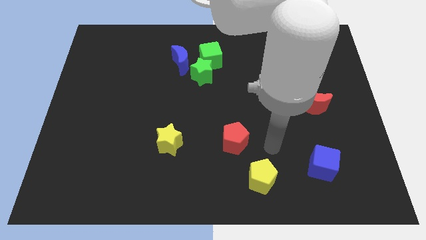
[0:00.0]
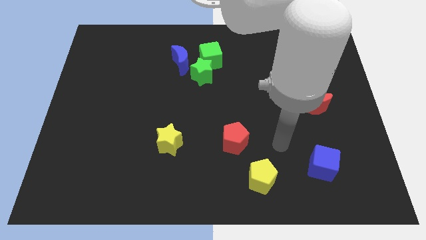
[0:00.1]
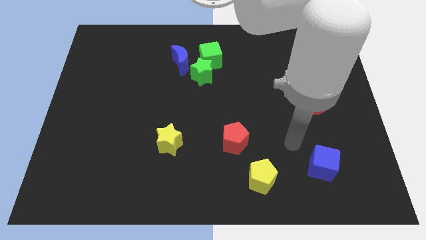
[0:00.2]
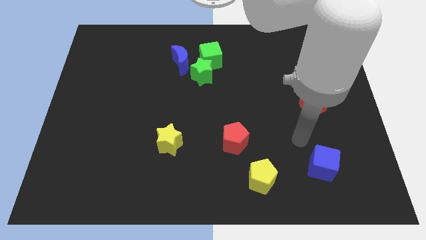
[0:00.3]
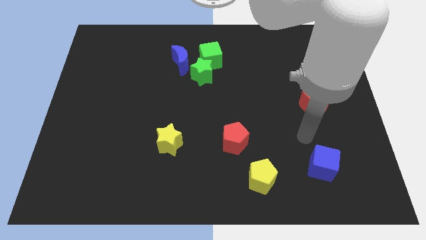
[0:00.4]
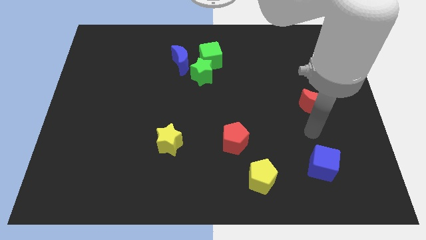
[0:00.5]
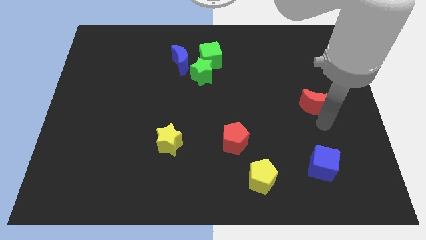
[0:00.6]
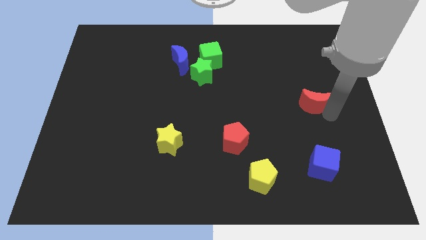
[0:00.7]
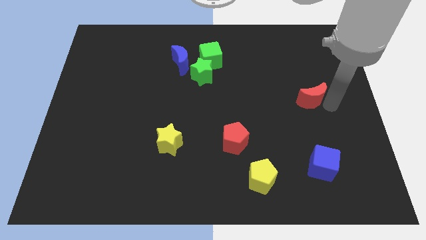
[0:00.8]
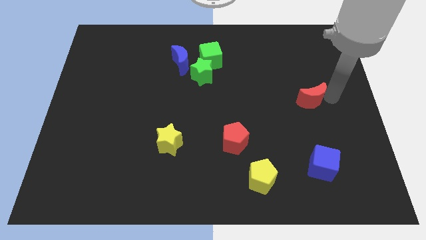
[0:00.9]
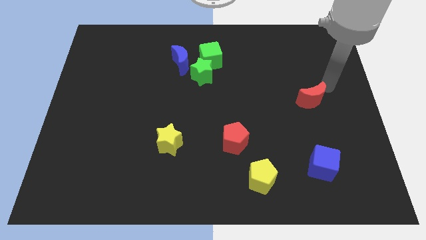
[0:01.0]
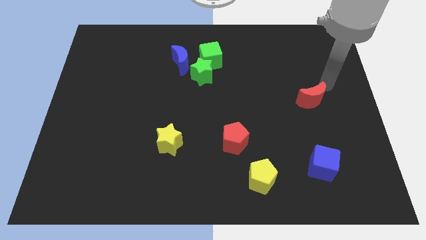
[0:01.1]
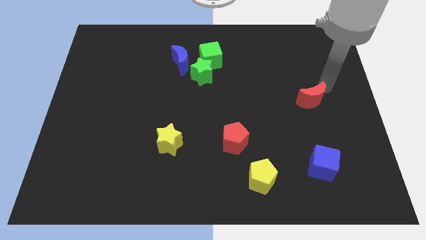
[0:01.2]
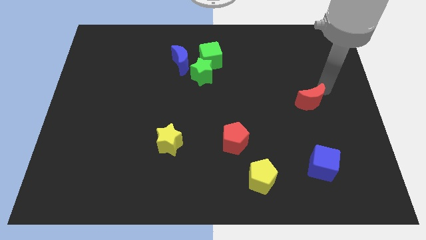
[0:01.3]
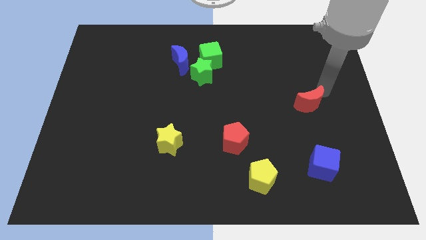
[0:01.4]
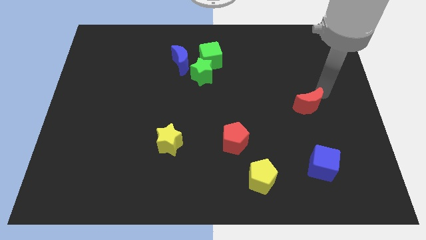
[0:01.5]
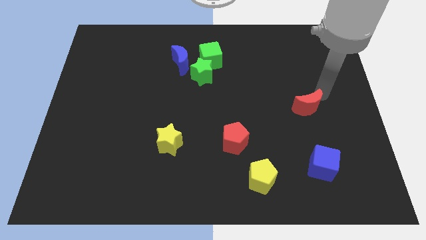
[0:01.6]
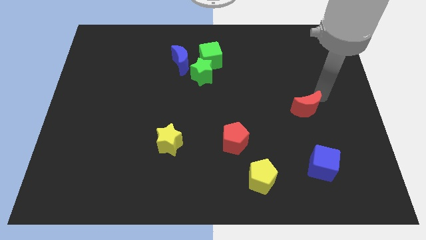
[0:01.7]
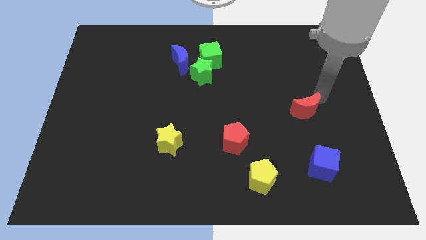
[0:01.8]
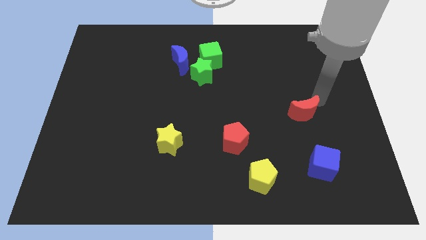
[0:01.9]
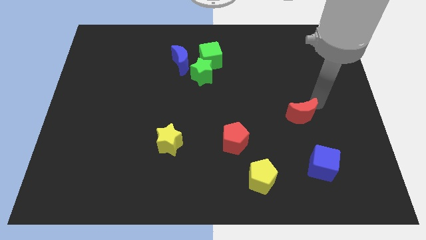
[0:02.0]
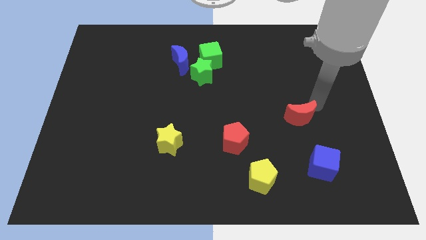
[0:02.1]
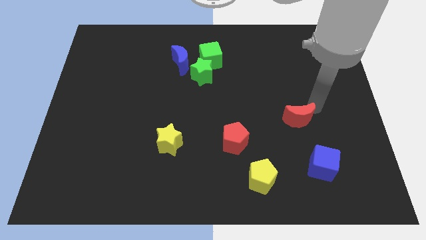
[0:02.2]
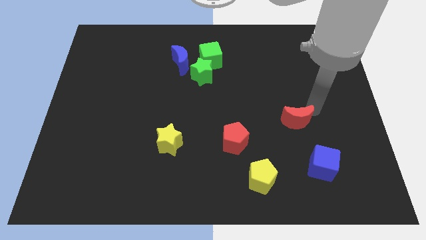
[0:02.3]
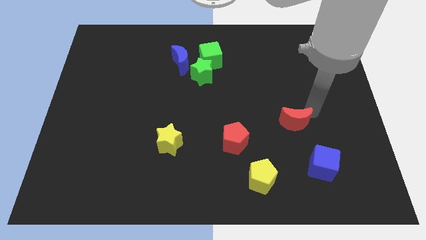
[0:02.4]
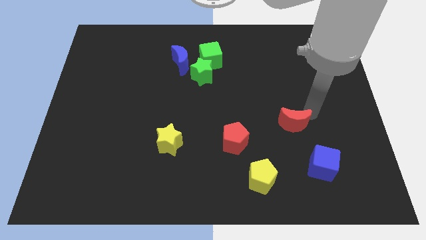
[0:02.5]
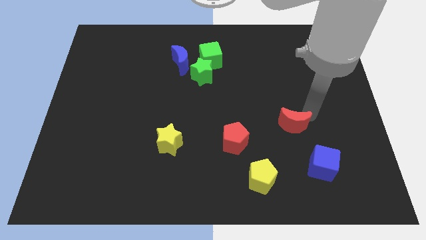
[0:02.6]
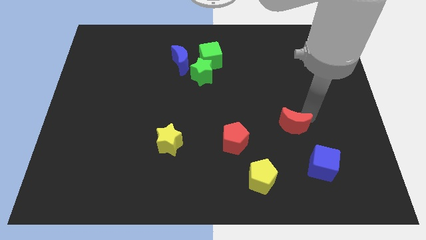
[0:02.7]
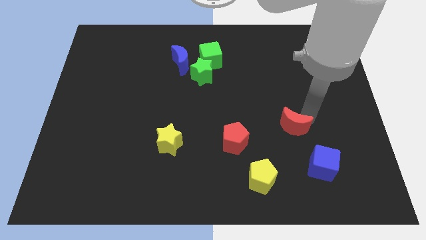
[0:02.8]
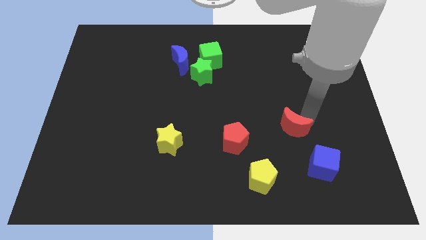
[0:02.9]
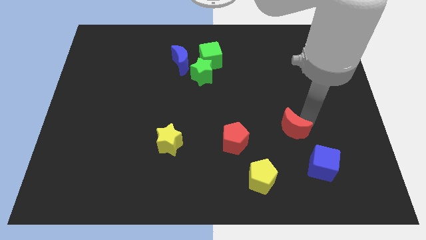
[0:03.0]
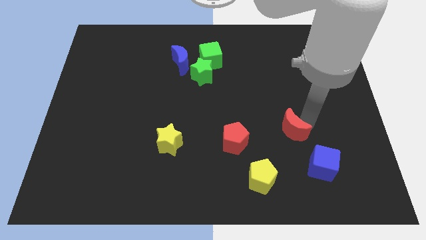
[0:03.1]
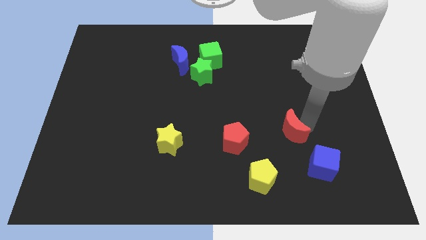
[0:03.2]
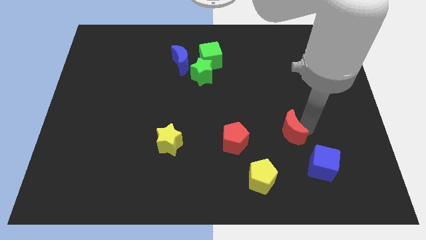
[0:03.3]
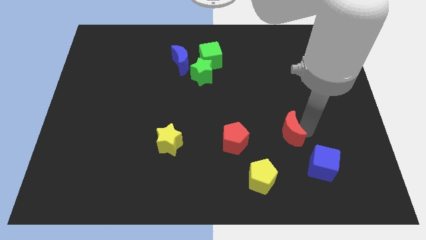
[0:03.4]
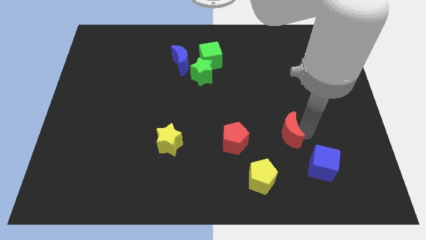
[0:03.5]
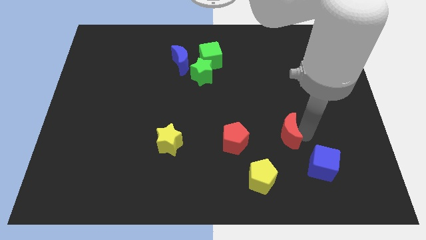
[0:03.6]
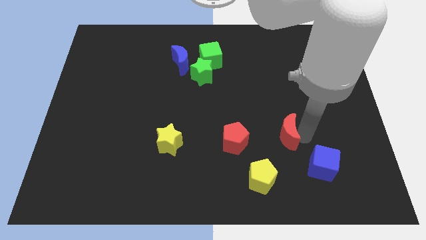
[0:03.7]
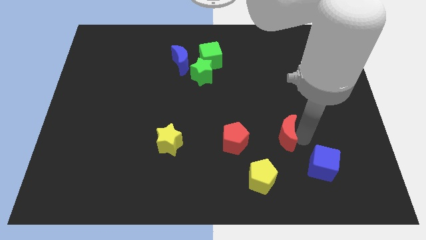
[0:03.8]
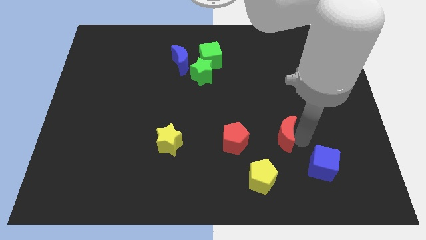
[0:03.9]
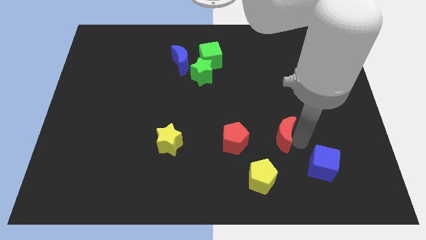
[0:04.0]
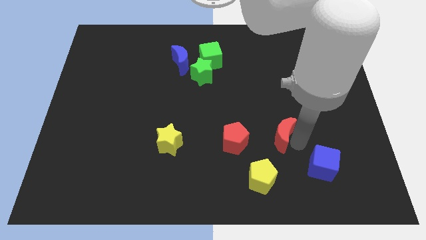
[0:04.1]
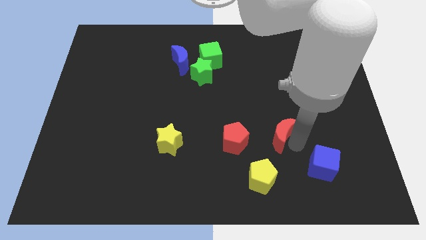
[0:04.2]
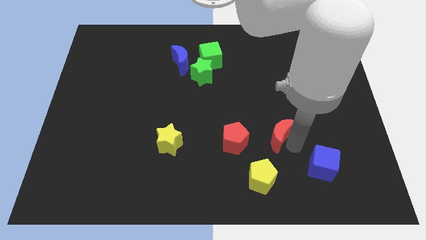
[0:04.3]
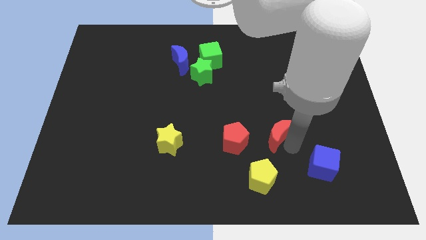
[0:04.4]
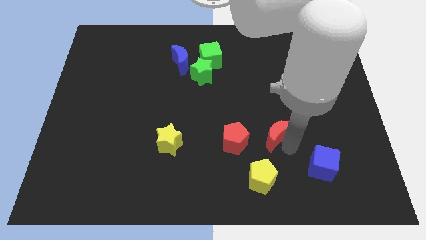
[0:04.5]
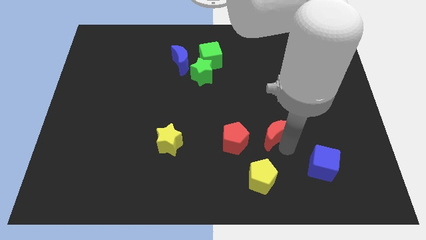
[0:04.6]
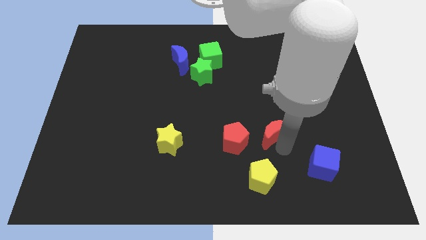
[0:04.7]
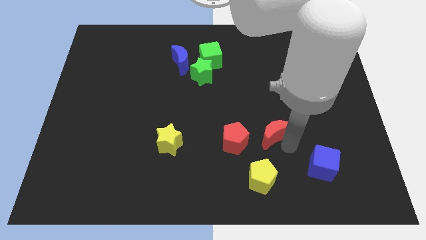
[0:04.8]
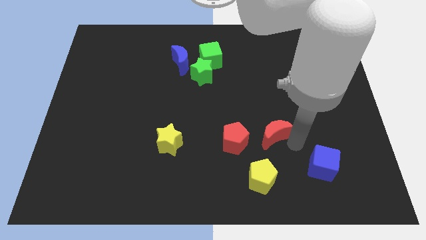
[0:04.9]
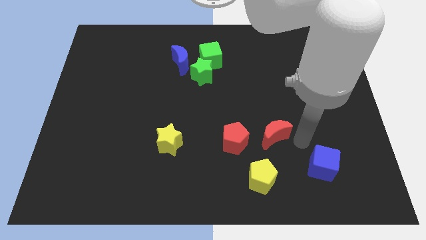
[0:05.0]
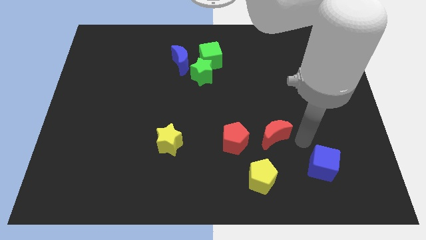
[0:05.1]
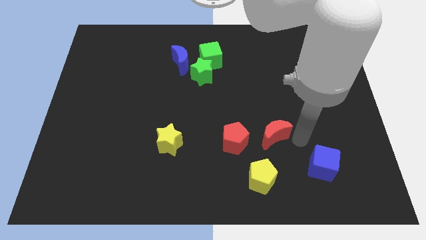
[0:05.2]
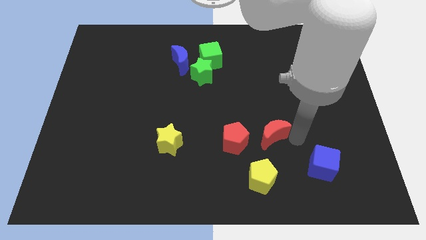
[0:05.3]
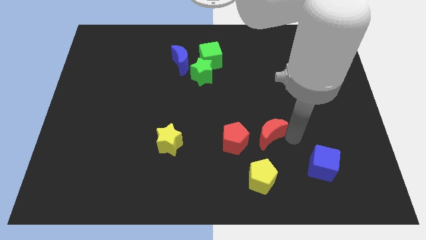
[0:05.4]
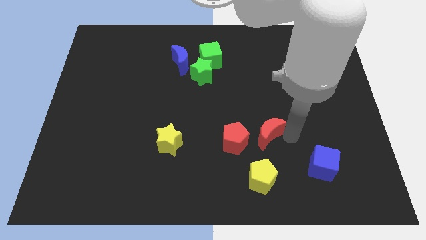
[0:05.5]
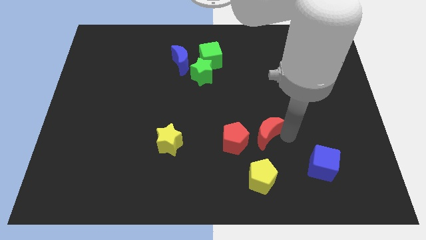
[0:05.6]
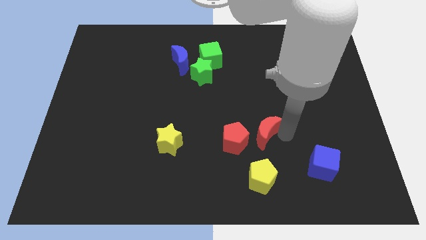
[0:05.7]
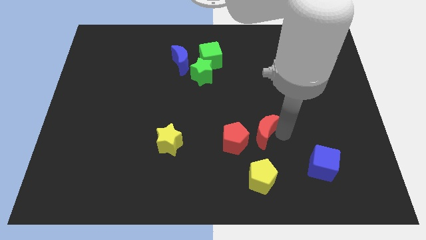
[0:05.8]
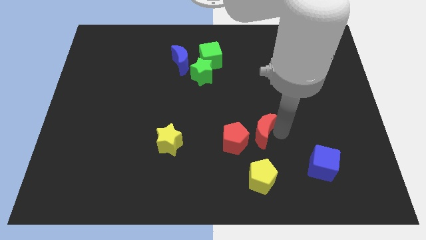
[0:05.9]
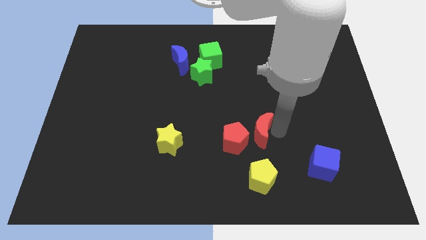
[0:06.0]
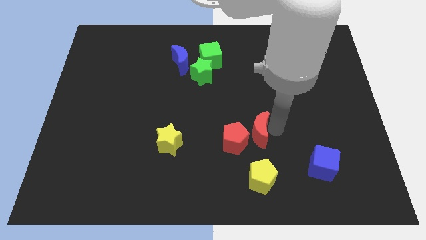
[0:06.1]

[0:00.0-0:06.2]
slide the red moon towards the red pentagon
